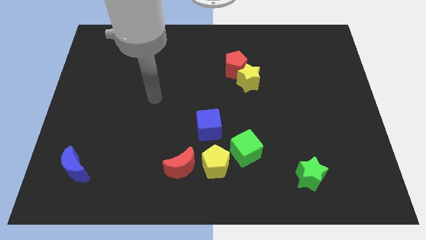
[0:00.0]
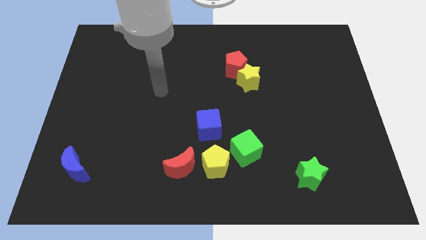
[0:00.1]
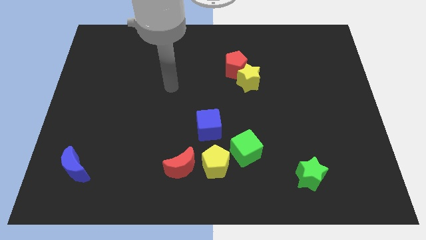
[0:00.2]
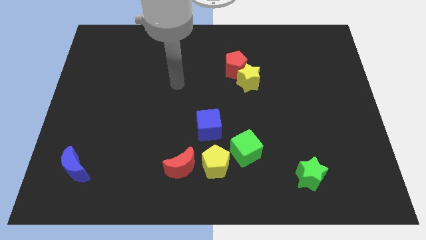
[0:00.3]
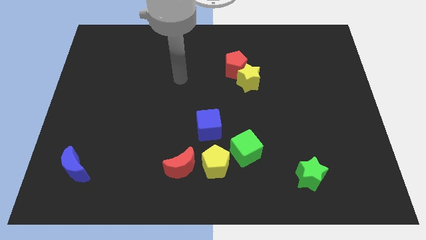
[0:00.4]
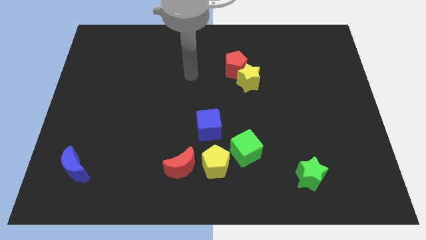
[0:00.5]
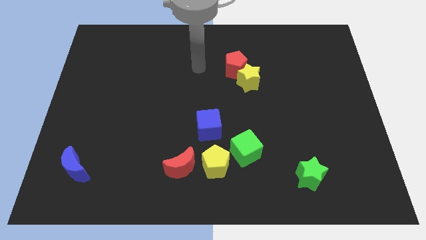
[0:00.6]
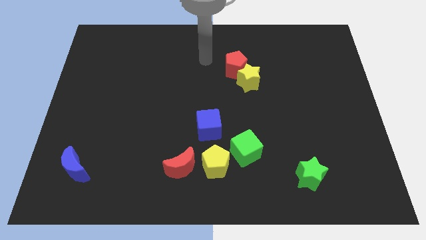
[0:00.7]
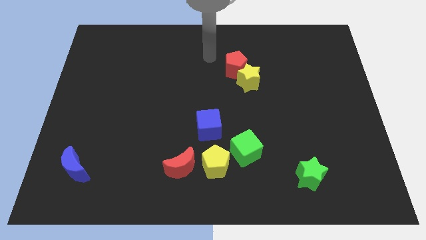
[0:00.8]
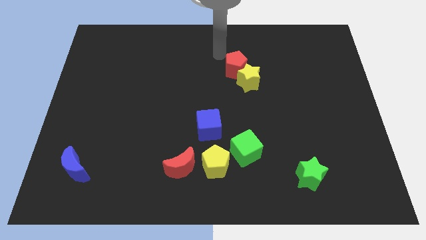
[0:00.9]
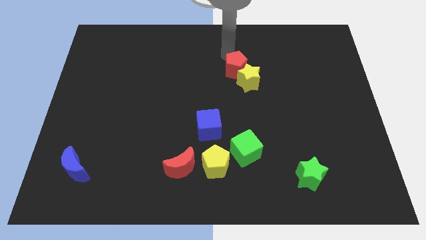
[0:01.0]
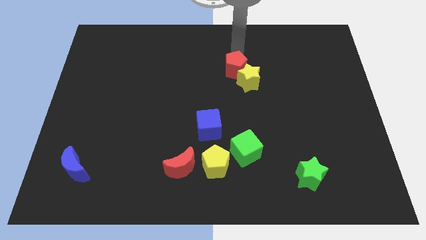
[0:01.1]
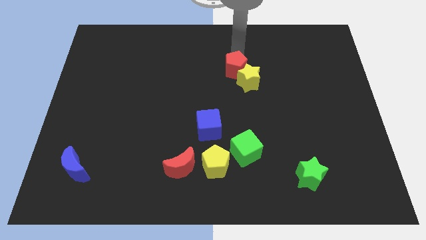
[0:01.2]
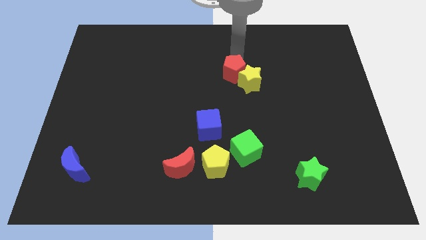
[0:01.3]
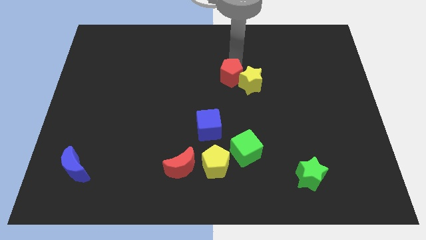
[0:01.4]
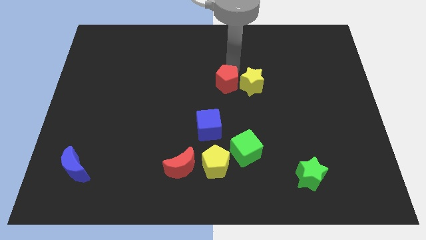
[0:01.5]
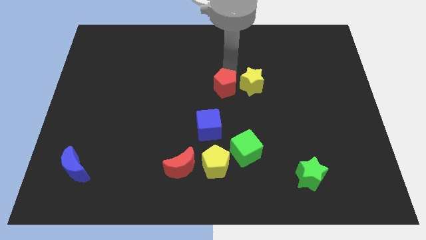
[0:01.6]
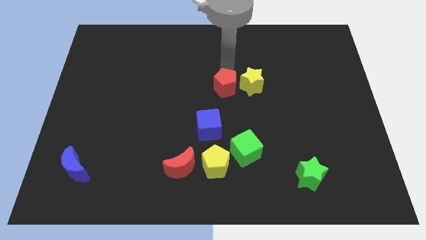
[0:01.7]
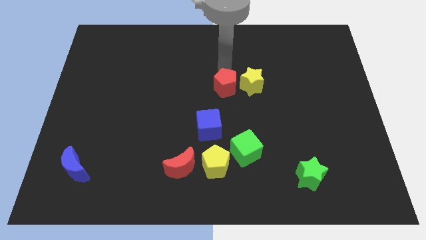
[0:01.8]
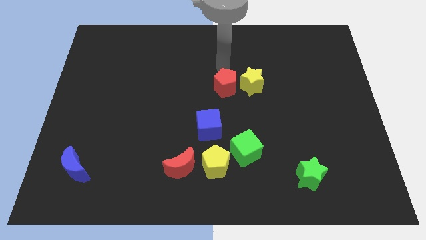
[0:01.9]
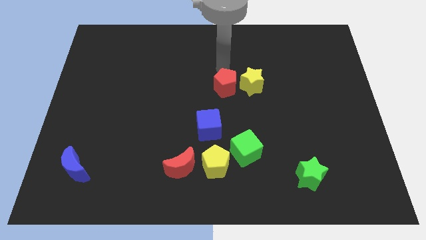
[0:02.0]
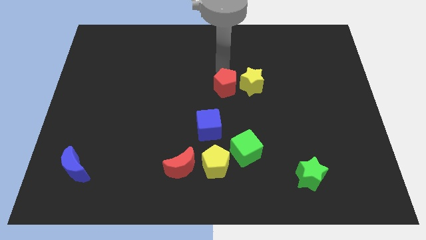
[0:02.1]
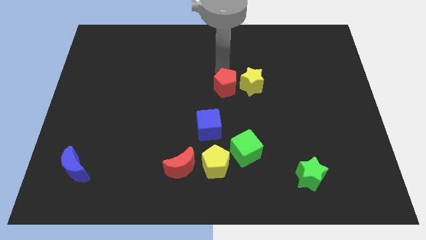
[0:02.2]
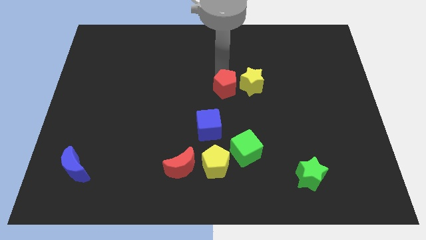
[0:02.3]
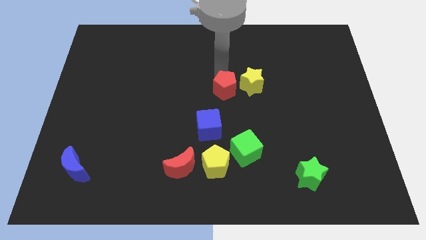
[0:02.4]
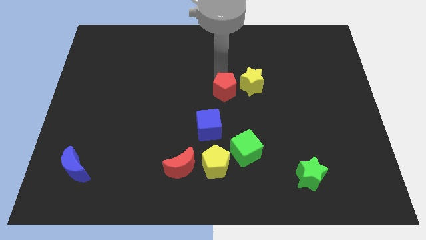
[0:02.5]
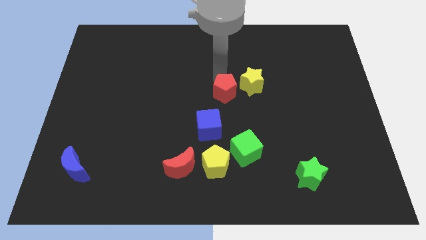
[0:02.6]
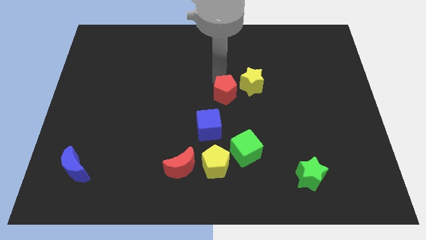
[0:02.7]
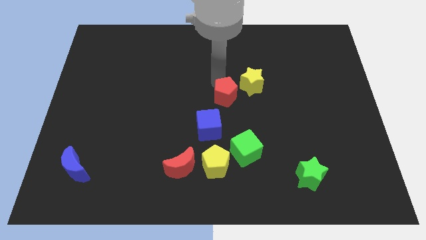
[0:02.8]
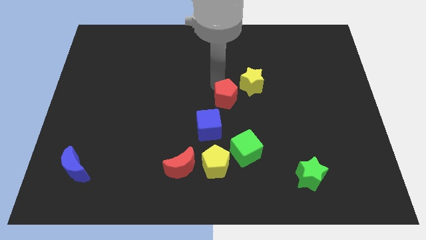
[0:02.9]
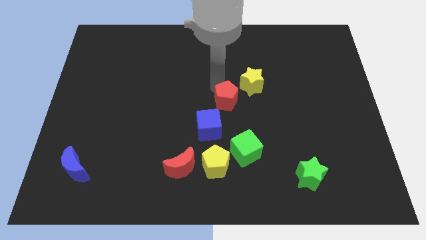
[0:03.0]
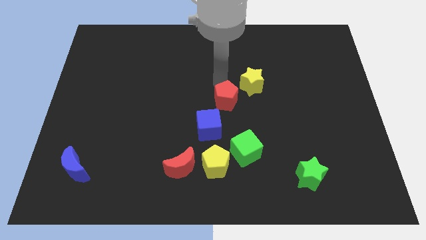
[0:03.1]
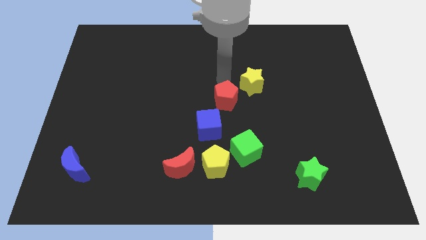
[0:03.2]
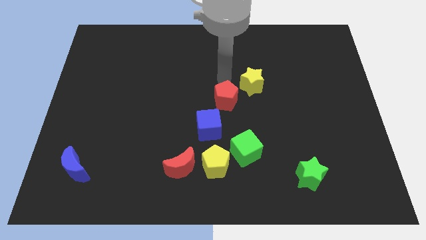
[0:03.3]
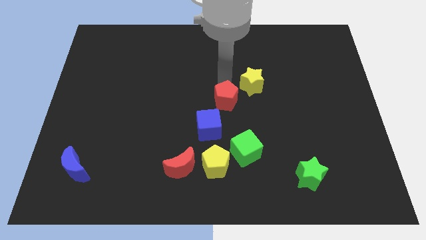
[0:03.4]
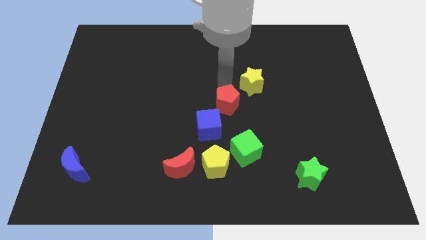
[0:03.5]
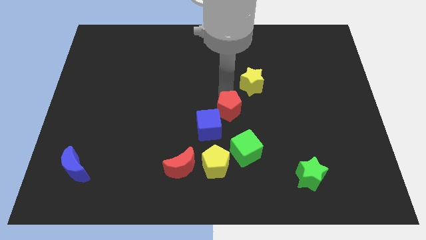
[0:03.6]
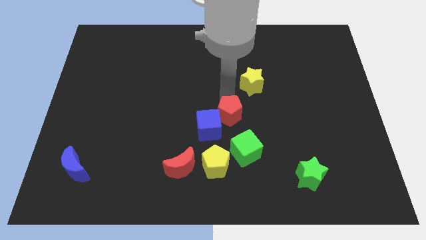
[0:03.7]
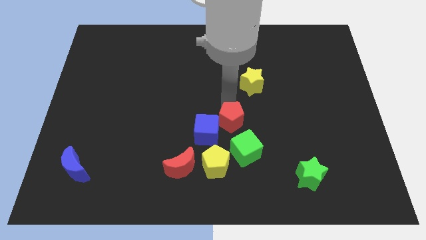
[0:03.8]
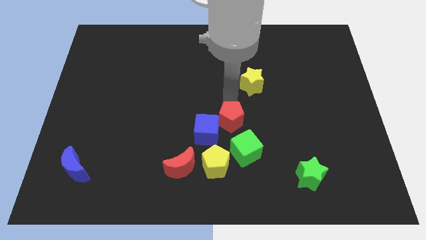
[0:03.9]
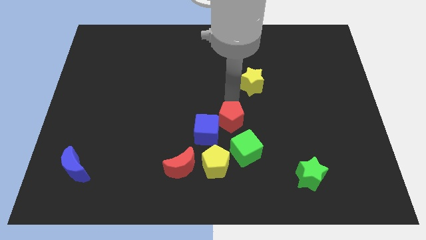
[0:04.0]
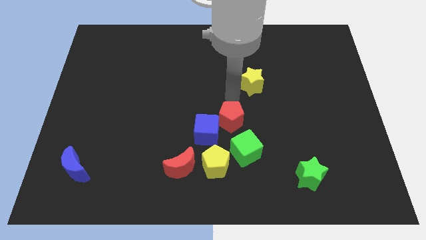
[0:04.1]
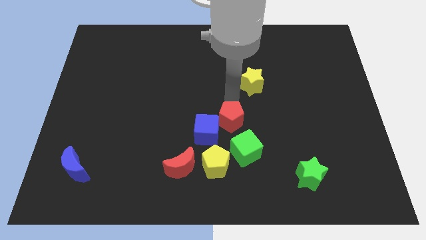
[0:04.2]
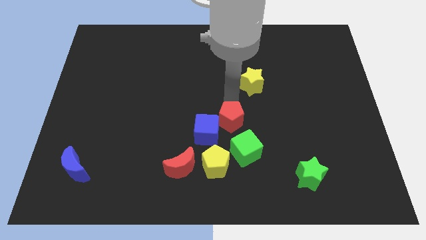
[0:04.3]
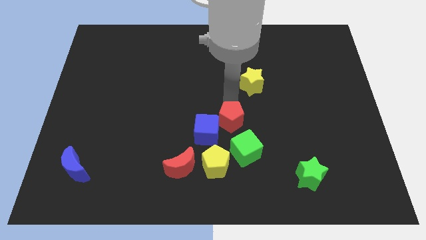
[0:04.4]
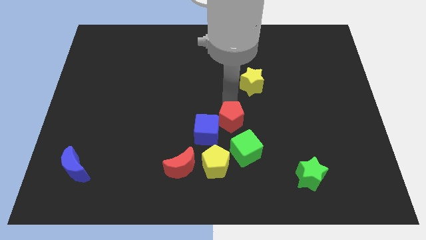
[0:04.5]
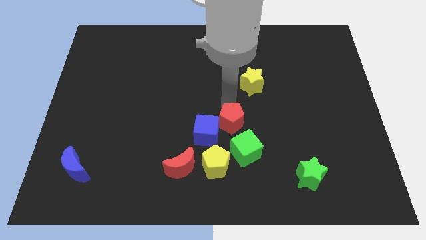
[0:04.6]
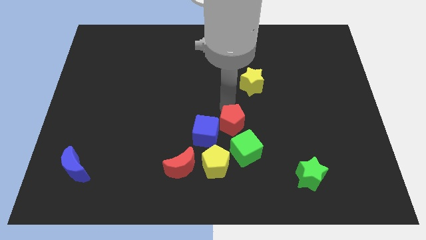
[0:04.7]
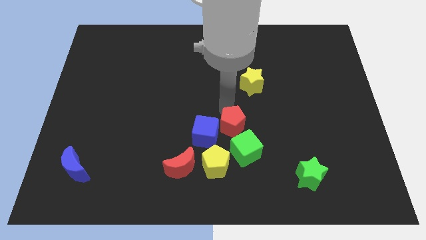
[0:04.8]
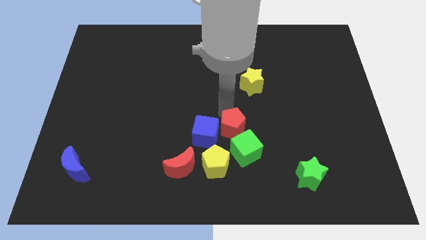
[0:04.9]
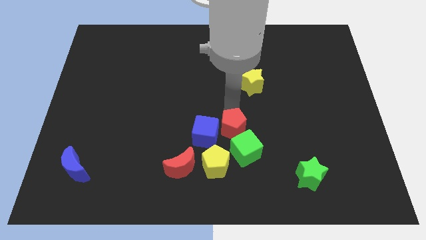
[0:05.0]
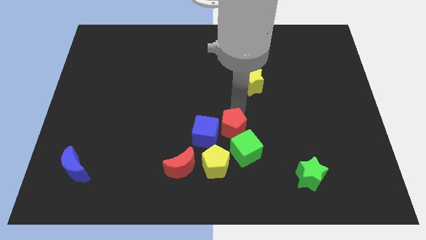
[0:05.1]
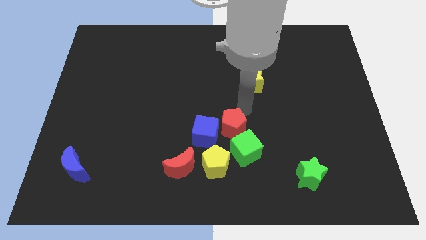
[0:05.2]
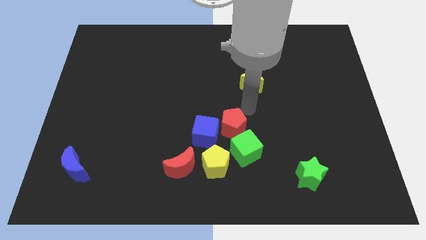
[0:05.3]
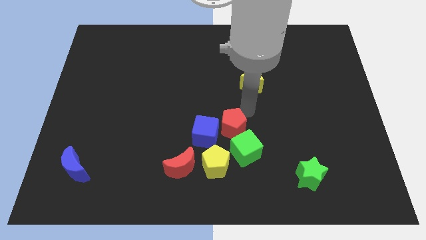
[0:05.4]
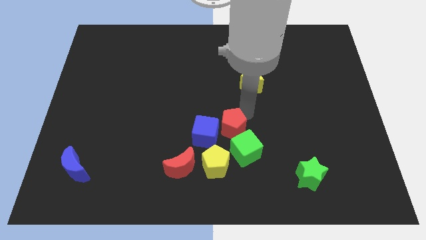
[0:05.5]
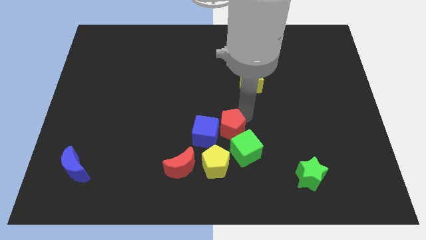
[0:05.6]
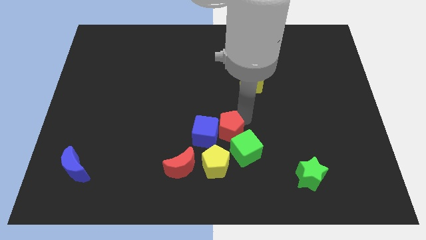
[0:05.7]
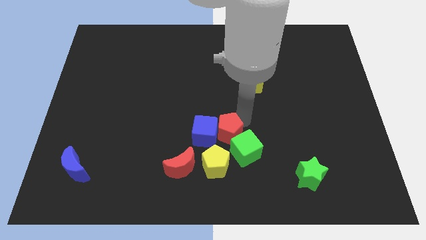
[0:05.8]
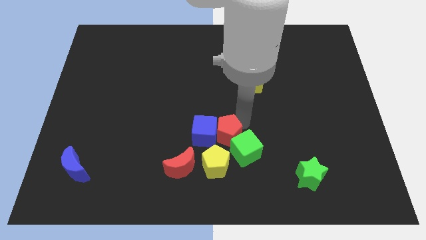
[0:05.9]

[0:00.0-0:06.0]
put the red pentagon to the left side of the green cube

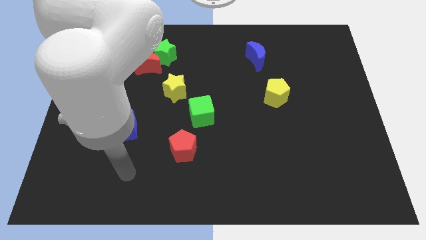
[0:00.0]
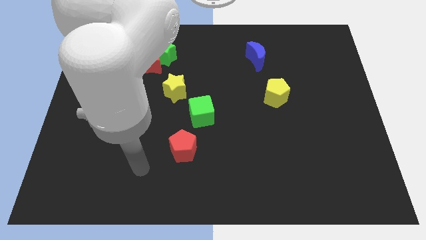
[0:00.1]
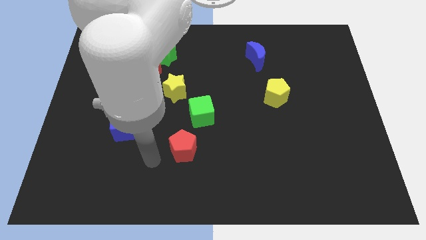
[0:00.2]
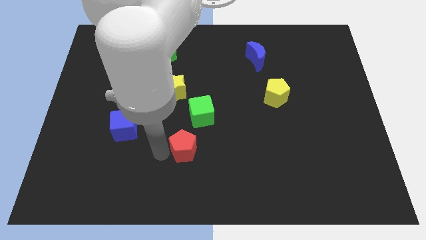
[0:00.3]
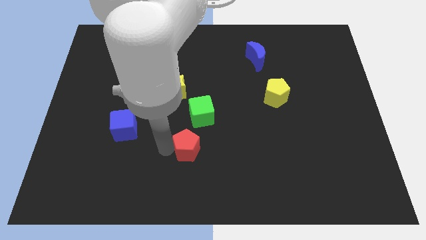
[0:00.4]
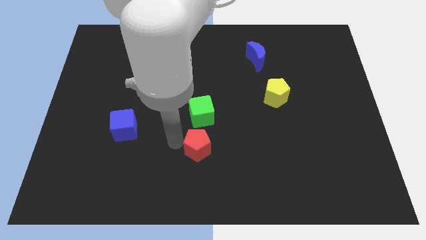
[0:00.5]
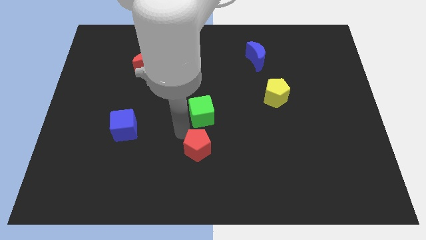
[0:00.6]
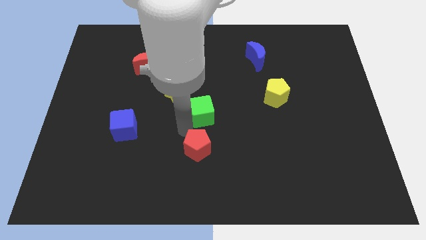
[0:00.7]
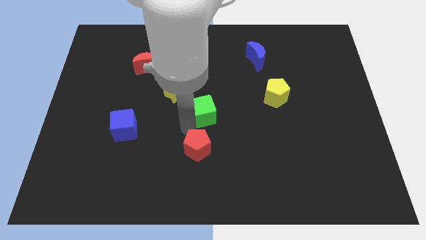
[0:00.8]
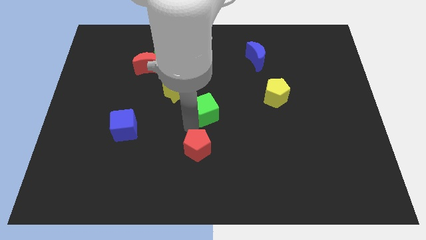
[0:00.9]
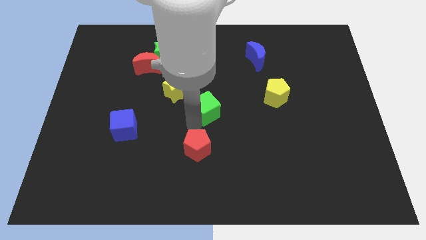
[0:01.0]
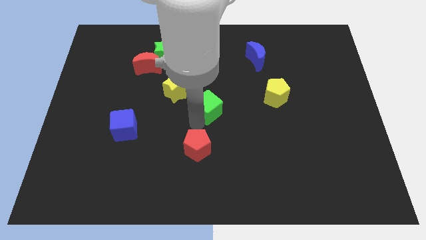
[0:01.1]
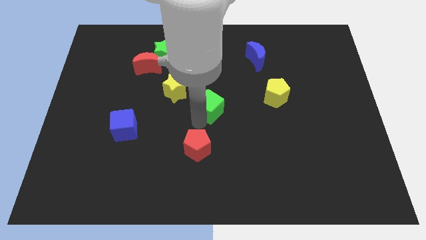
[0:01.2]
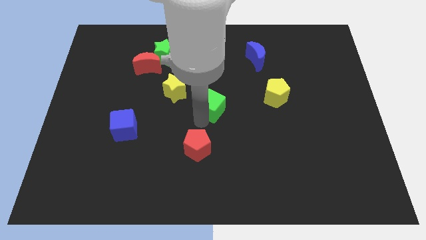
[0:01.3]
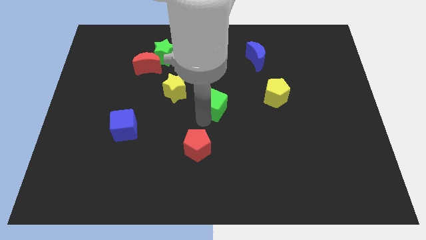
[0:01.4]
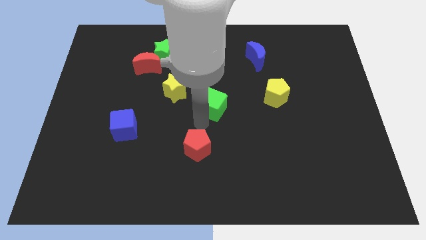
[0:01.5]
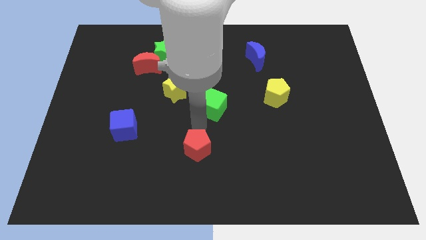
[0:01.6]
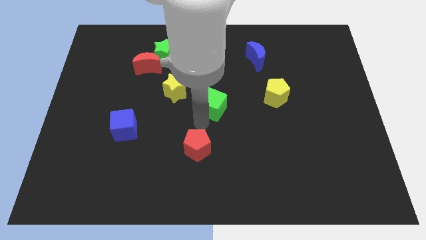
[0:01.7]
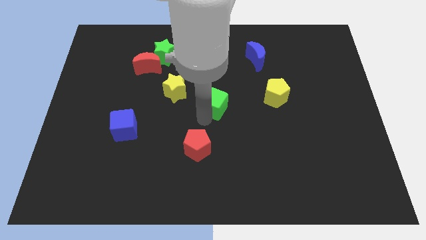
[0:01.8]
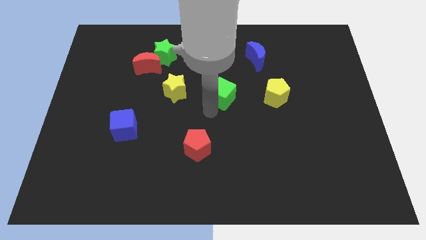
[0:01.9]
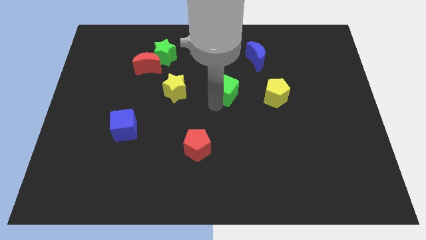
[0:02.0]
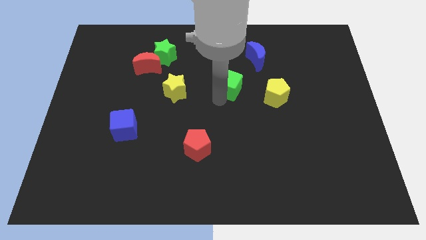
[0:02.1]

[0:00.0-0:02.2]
move the green cube to the bottom left of the blue moon
